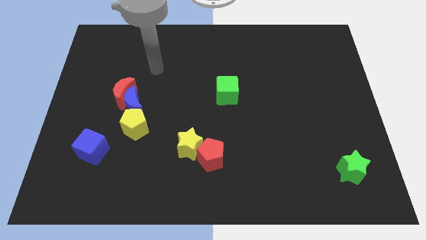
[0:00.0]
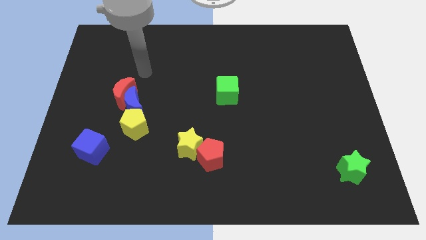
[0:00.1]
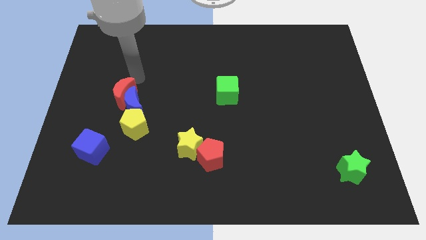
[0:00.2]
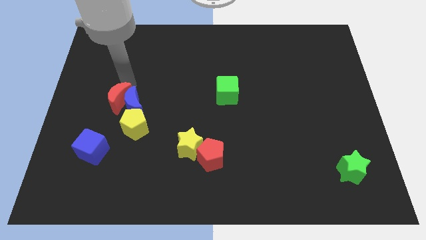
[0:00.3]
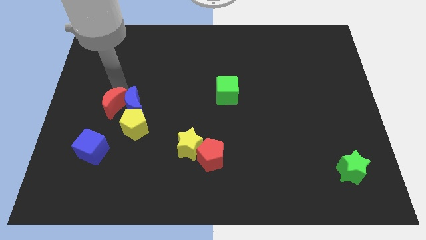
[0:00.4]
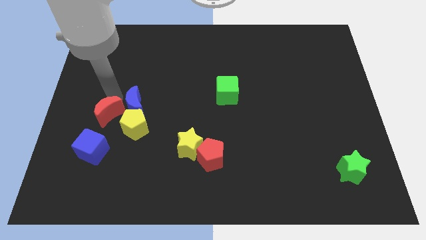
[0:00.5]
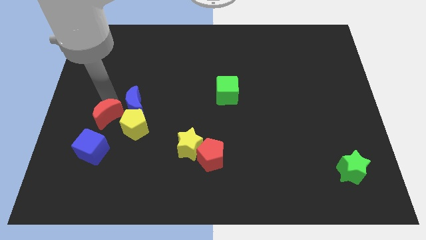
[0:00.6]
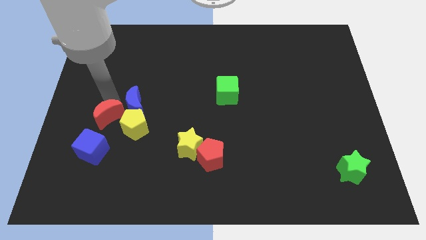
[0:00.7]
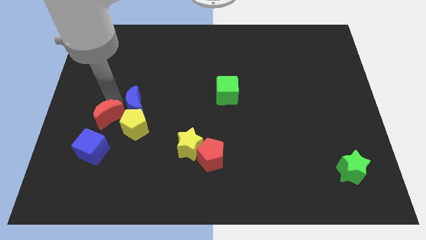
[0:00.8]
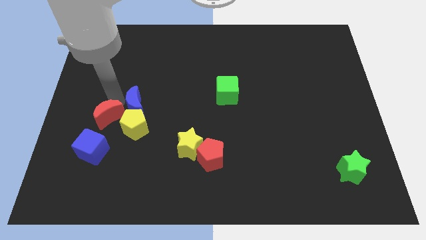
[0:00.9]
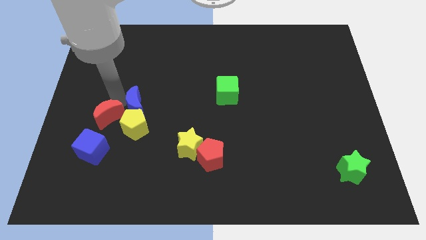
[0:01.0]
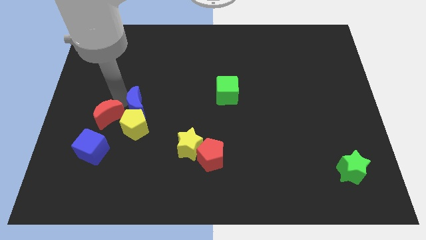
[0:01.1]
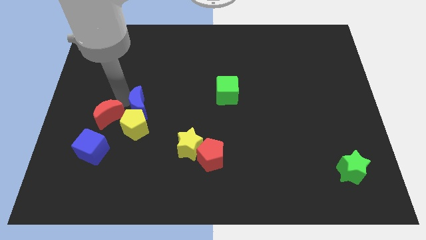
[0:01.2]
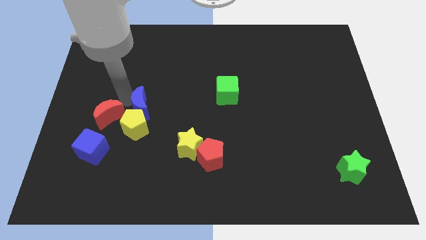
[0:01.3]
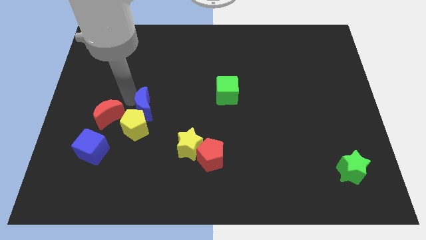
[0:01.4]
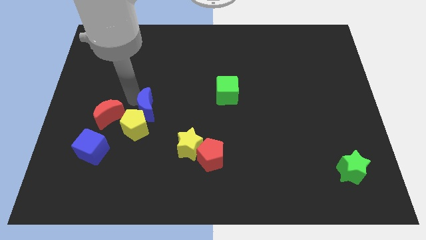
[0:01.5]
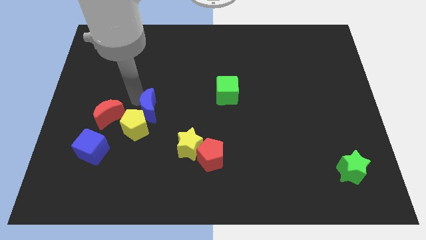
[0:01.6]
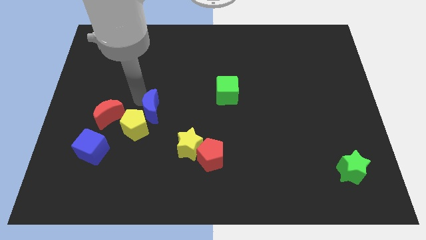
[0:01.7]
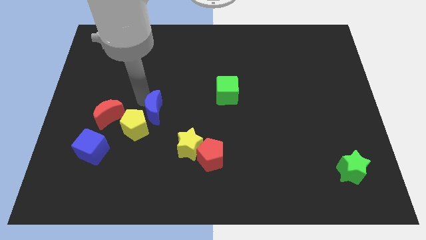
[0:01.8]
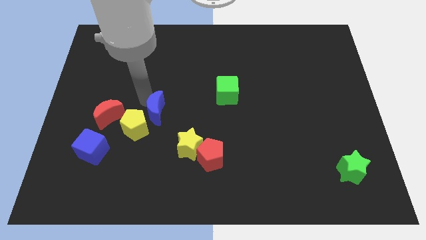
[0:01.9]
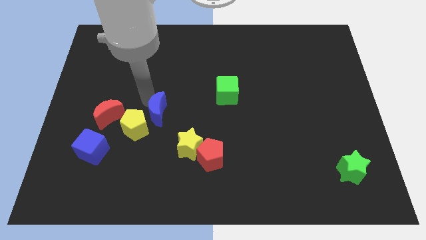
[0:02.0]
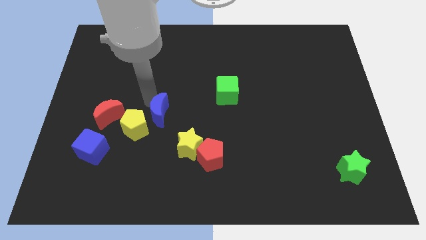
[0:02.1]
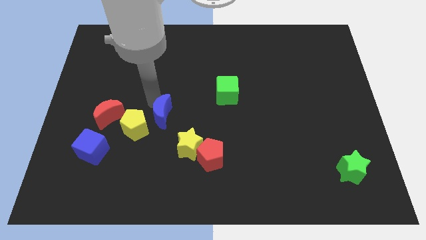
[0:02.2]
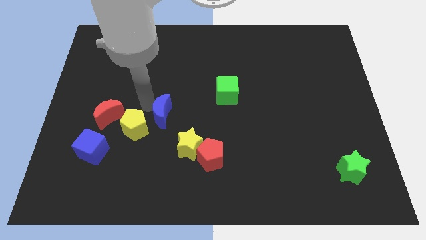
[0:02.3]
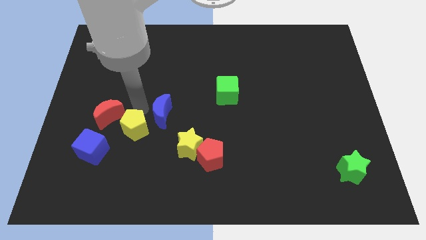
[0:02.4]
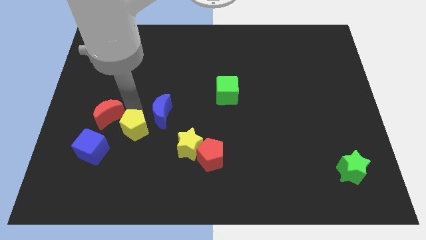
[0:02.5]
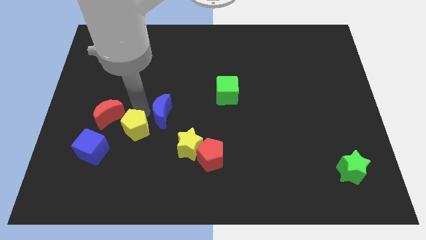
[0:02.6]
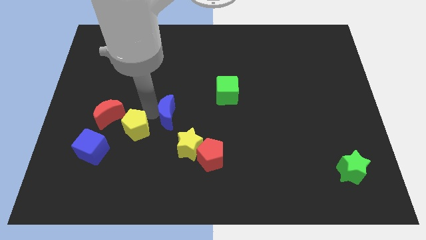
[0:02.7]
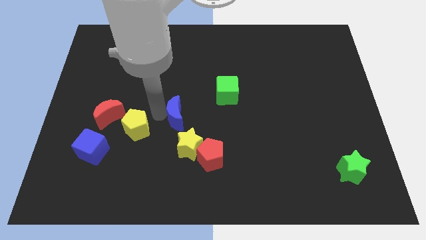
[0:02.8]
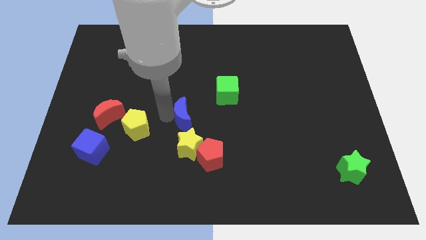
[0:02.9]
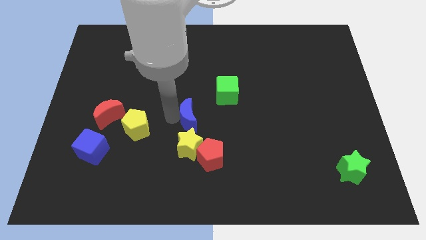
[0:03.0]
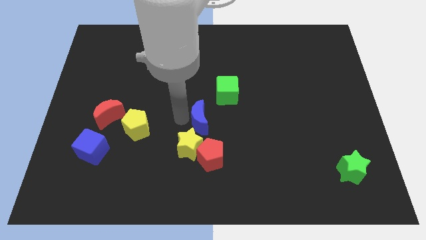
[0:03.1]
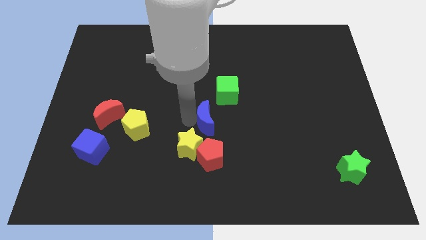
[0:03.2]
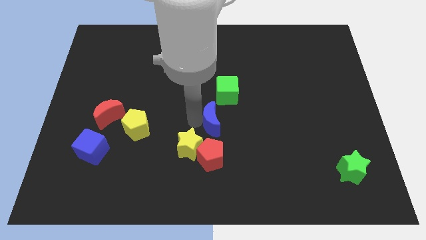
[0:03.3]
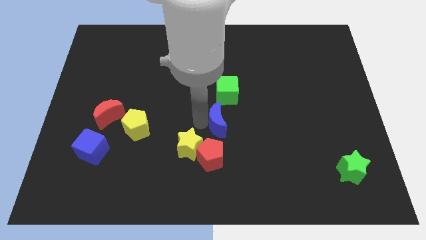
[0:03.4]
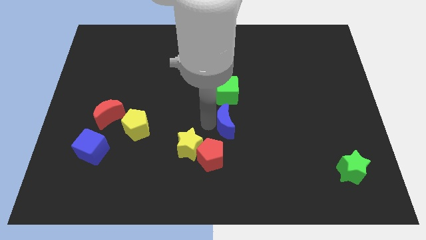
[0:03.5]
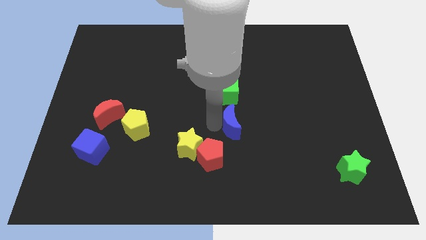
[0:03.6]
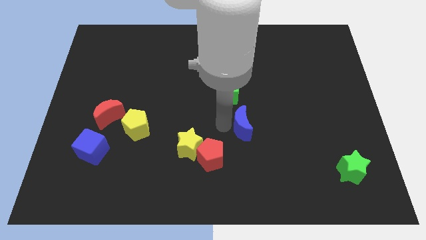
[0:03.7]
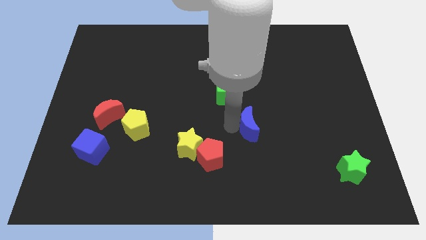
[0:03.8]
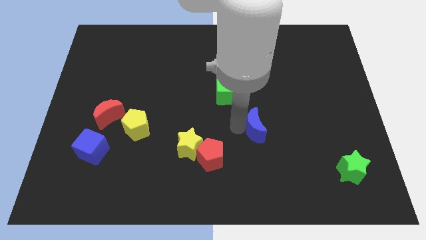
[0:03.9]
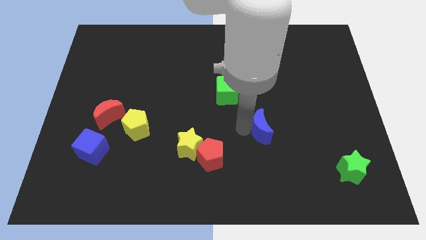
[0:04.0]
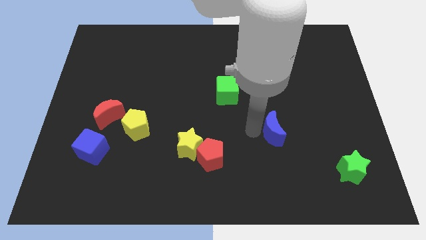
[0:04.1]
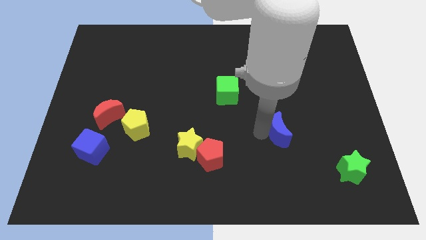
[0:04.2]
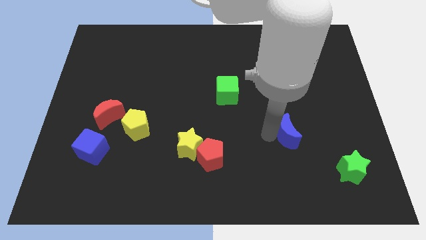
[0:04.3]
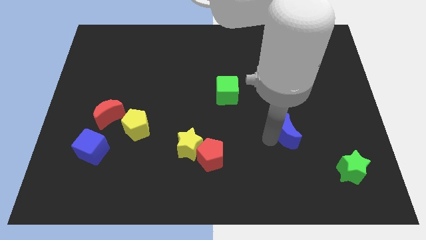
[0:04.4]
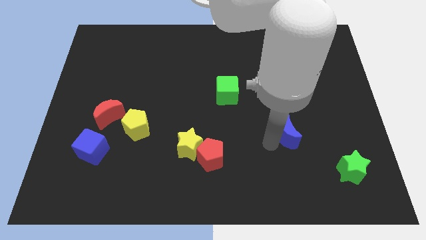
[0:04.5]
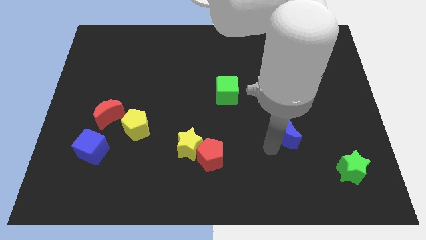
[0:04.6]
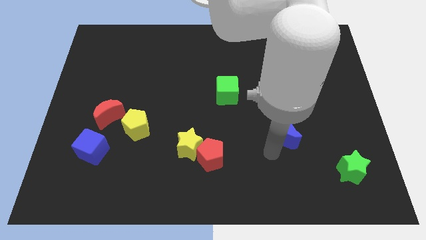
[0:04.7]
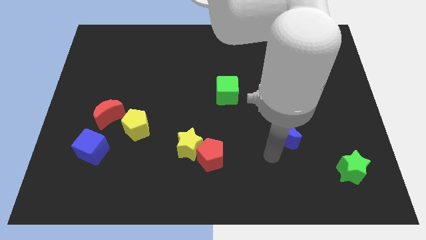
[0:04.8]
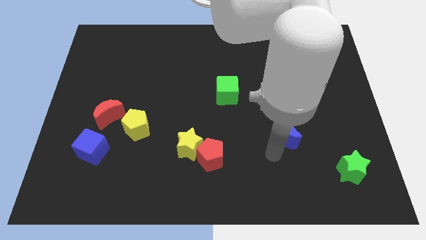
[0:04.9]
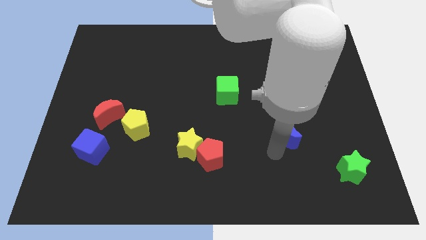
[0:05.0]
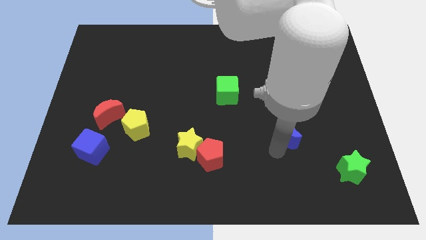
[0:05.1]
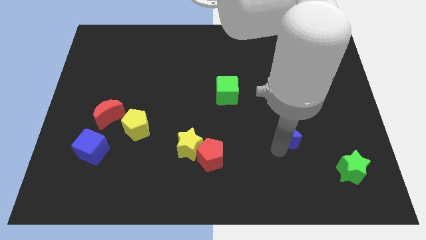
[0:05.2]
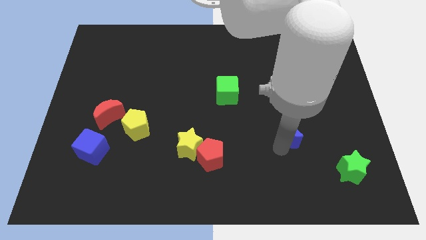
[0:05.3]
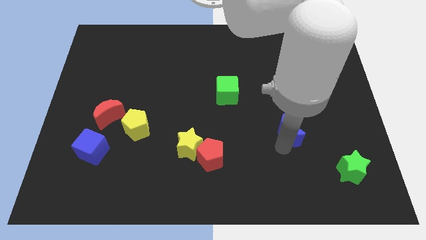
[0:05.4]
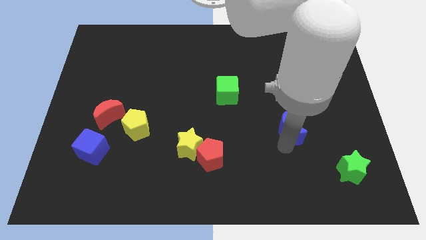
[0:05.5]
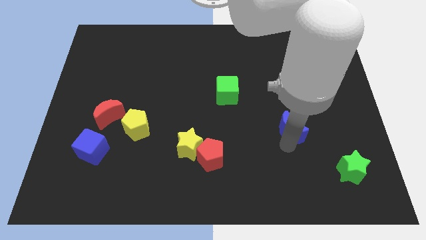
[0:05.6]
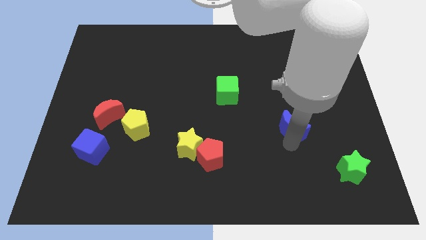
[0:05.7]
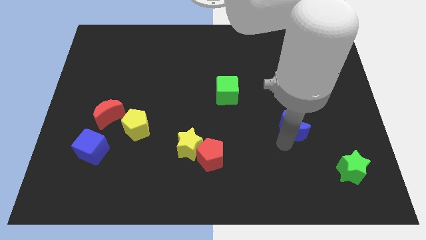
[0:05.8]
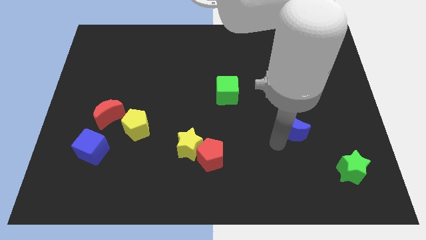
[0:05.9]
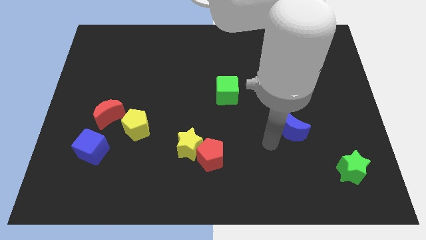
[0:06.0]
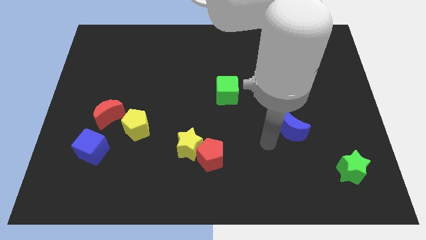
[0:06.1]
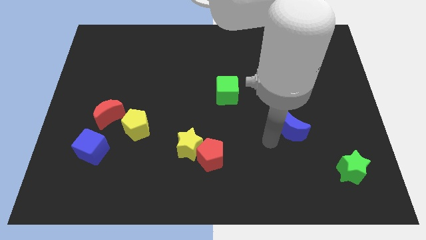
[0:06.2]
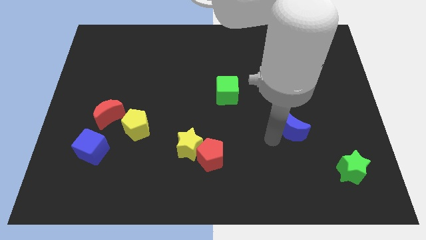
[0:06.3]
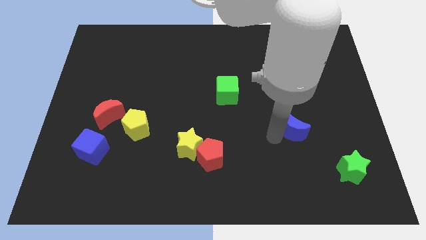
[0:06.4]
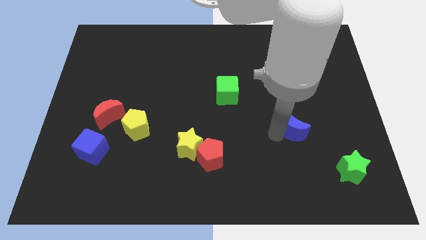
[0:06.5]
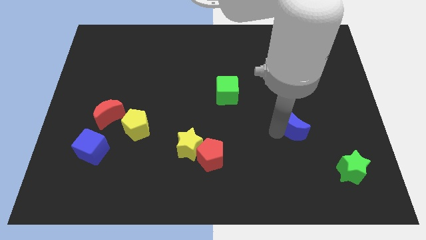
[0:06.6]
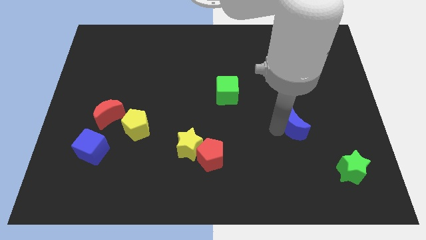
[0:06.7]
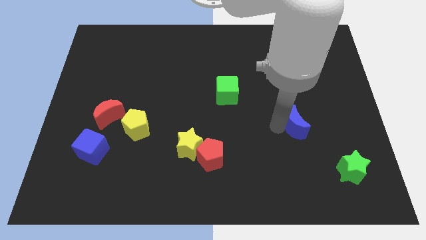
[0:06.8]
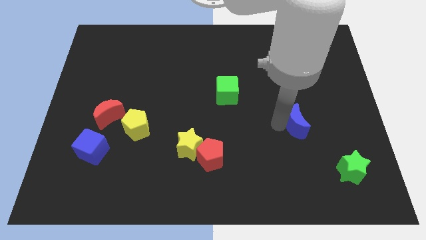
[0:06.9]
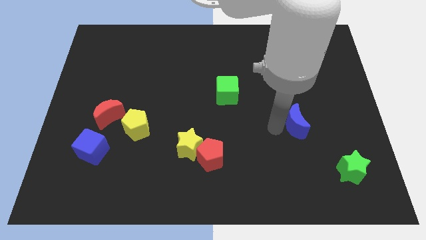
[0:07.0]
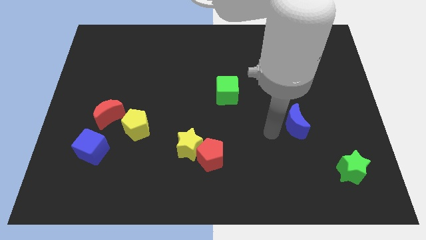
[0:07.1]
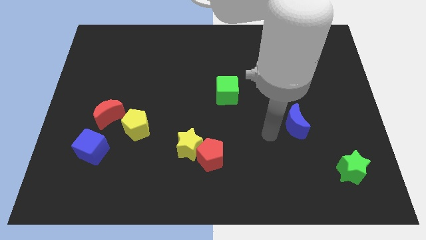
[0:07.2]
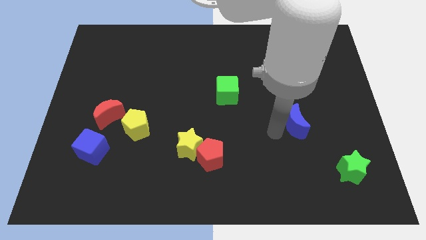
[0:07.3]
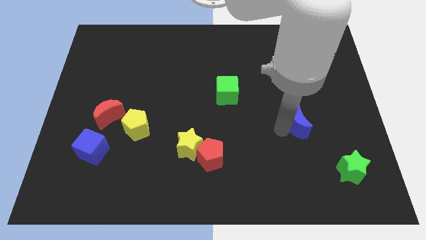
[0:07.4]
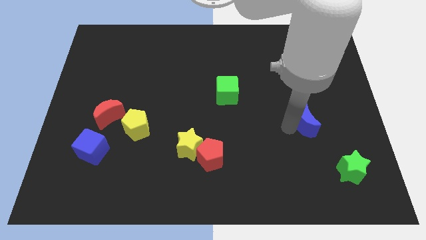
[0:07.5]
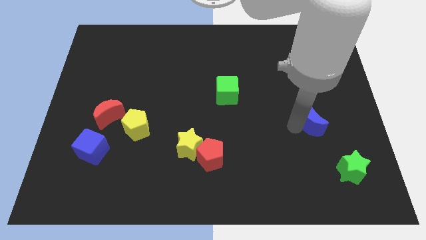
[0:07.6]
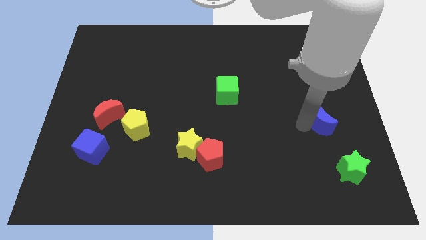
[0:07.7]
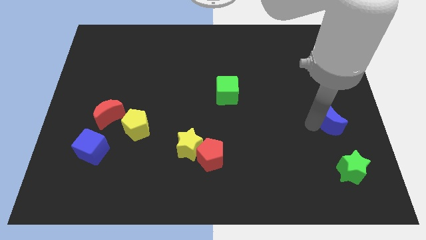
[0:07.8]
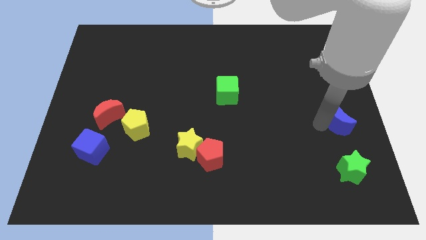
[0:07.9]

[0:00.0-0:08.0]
push the blue moon to the right side of the board
